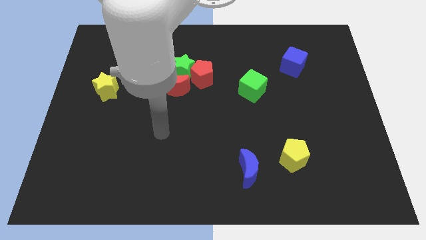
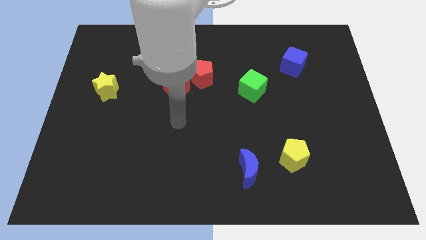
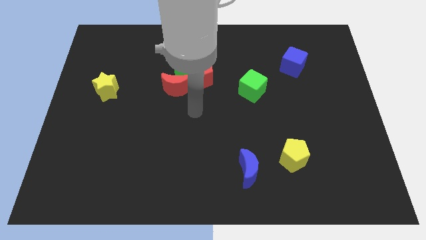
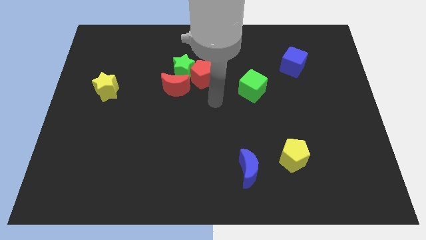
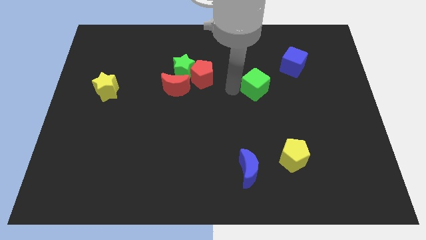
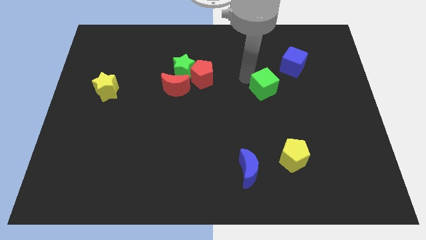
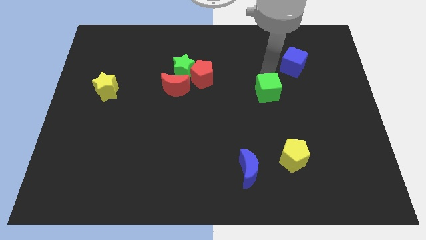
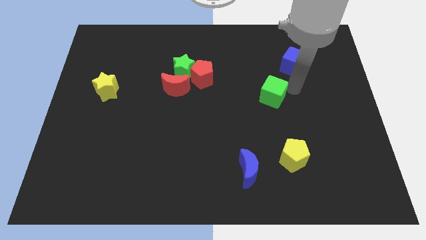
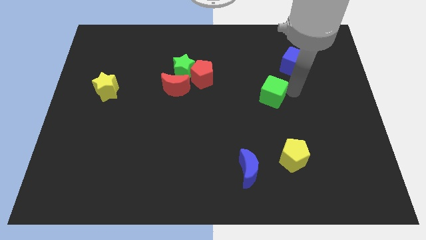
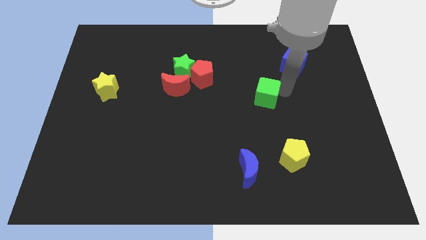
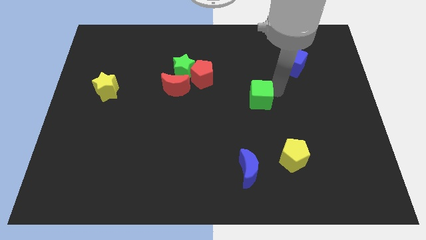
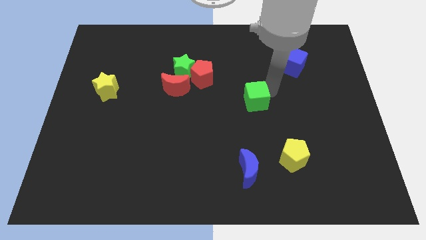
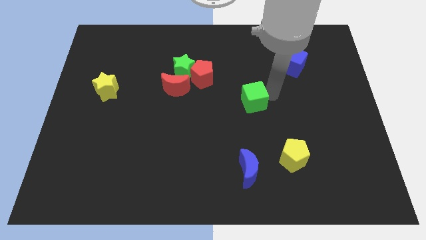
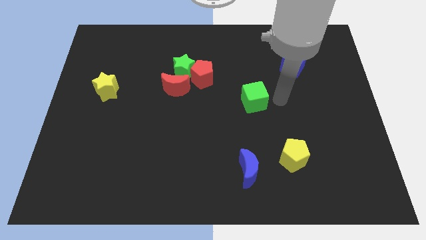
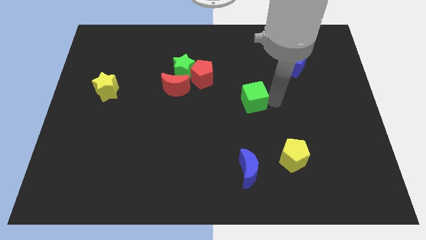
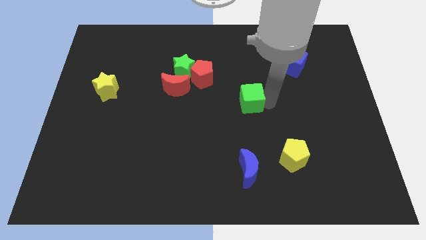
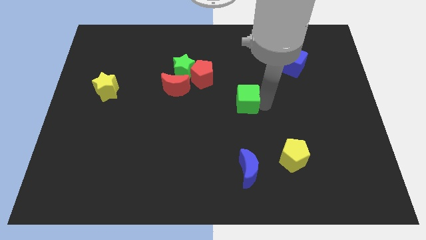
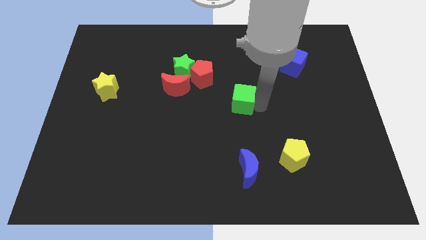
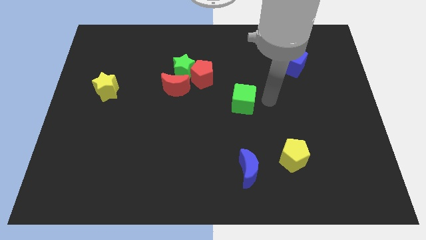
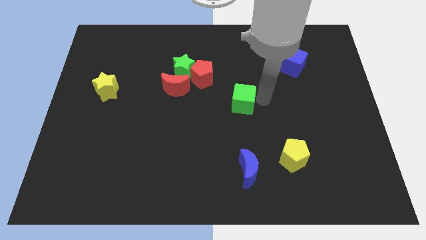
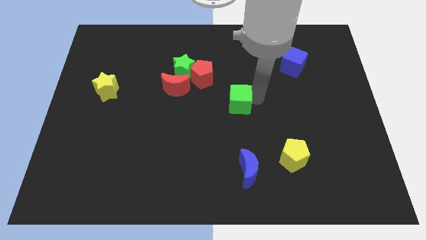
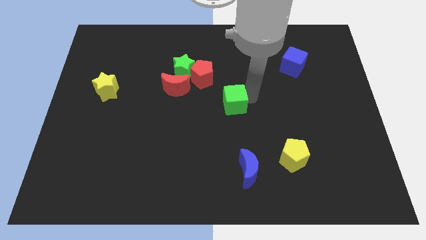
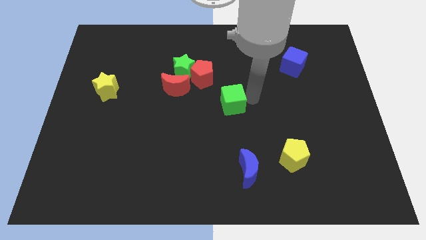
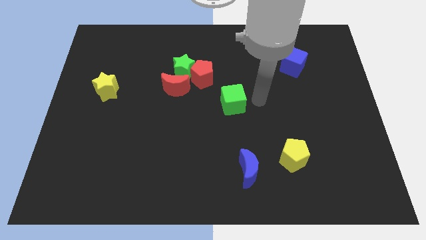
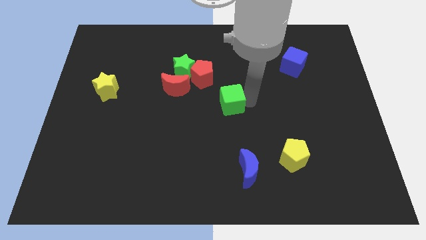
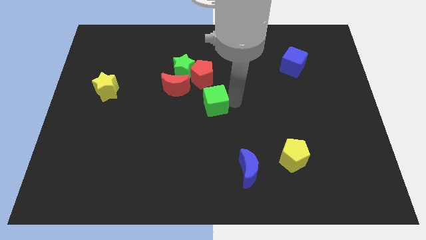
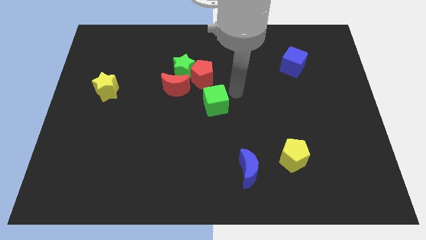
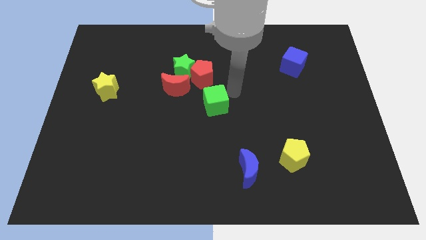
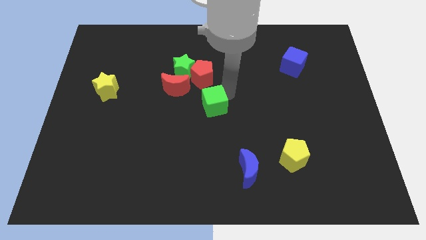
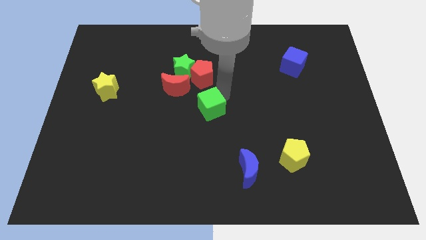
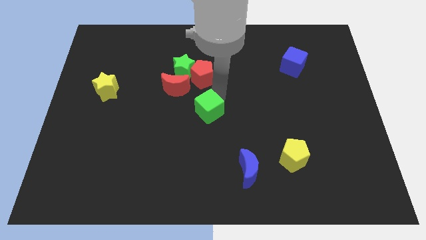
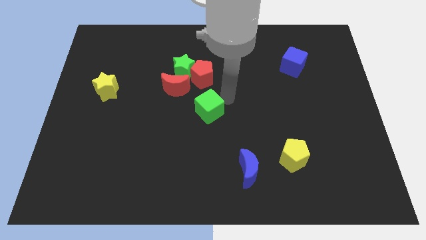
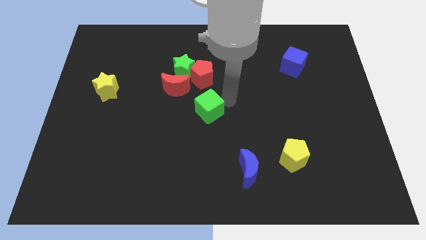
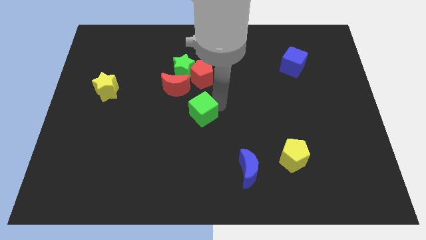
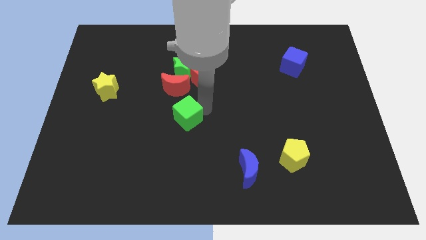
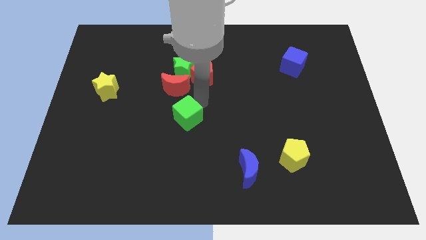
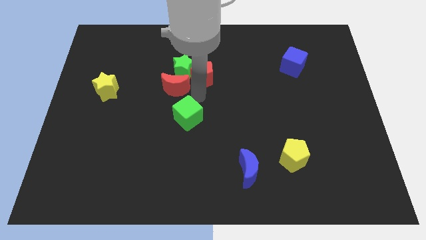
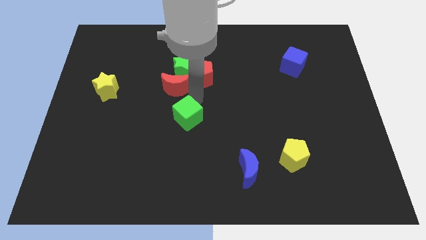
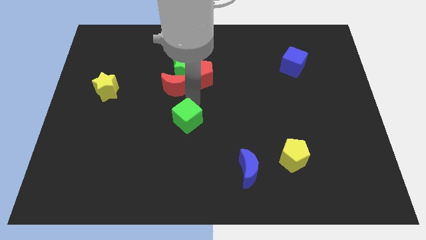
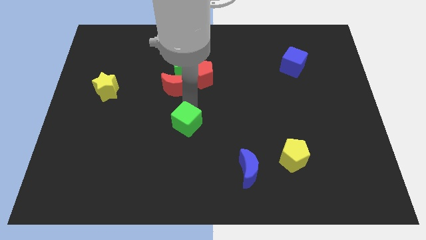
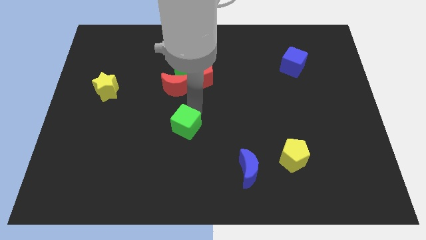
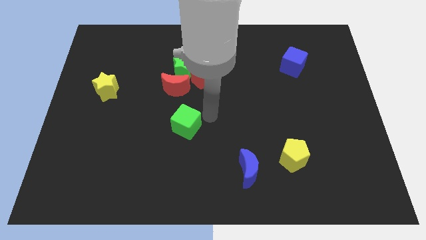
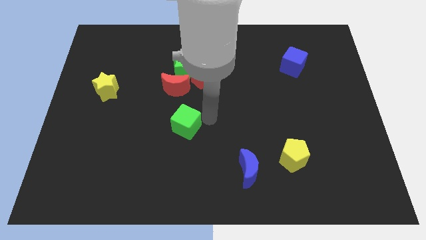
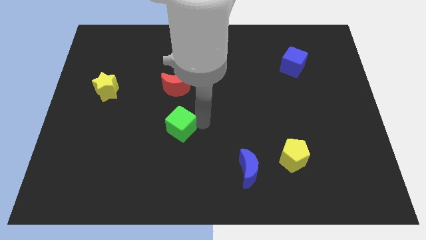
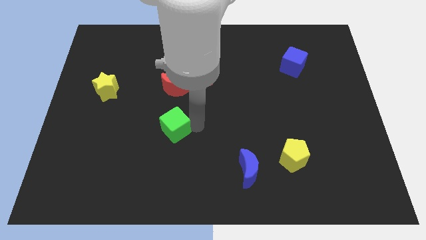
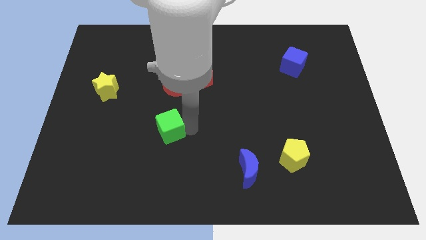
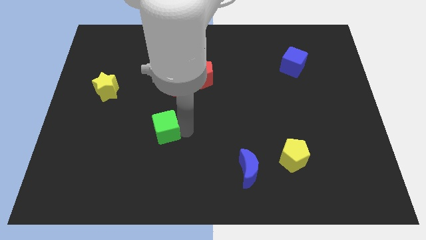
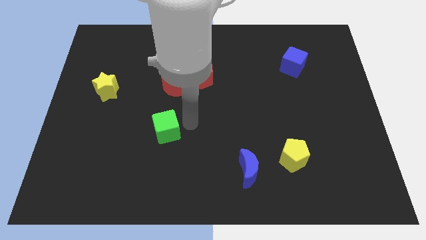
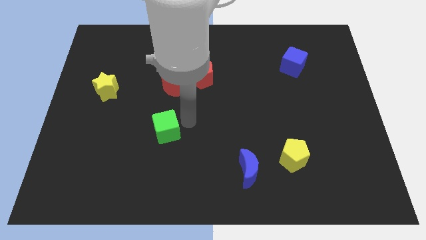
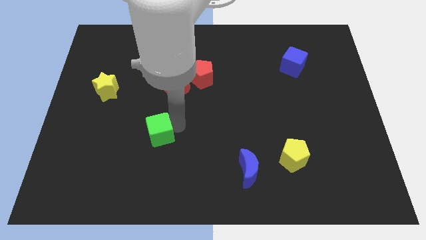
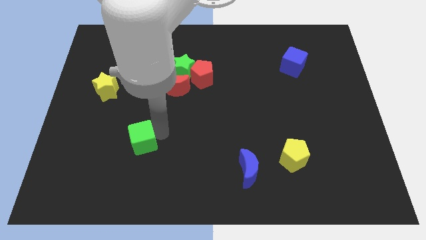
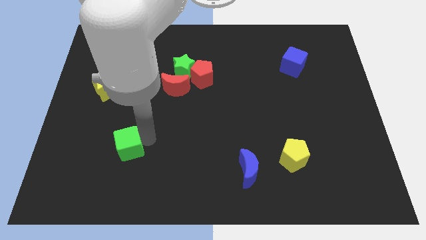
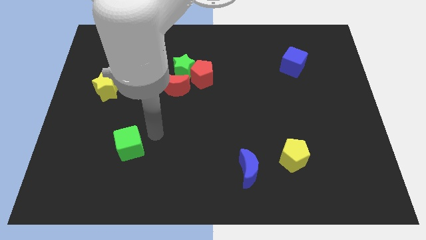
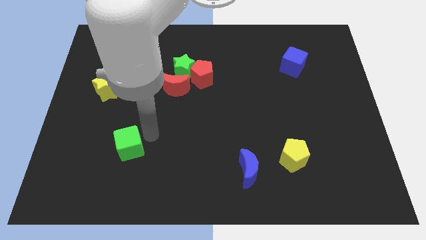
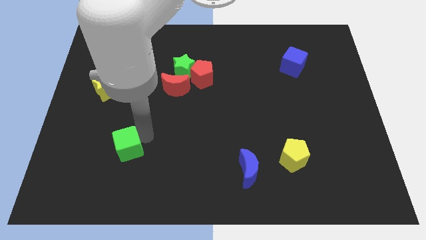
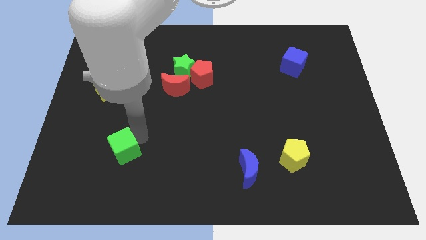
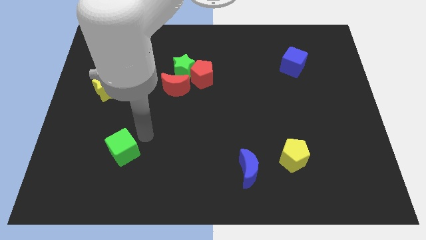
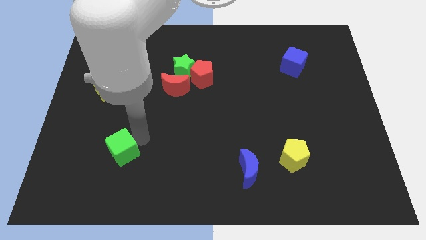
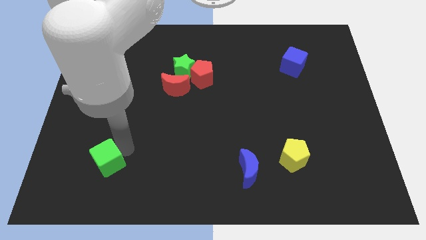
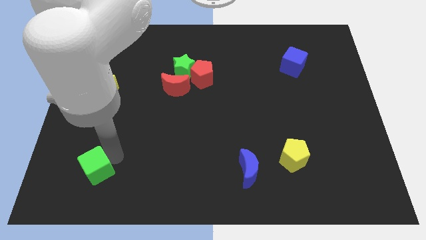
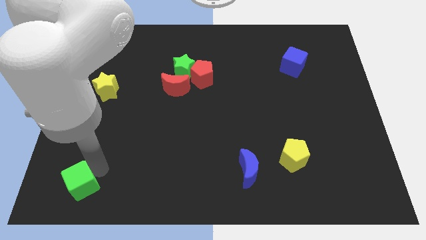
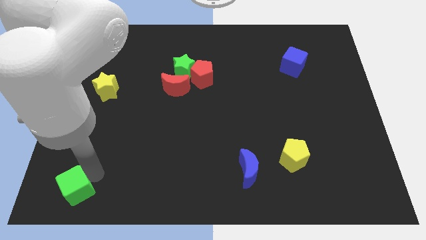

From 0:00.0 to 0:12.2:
slide the green cube to the bottom left of the board
